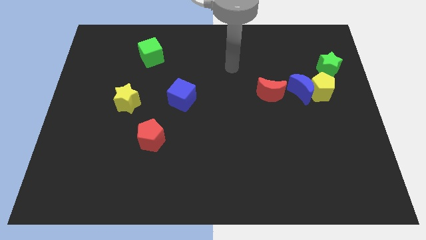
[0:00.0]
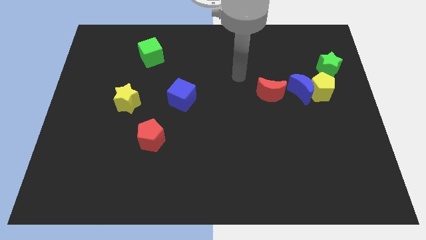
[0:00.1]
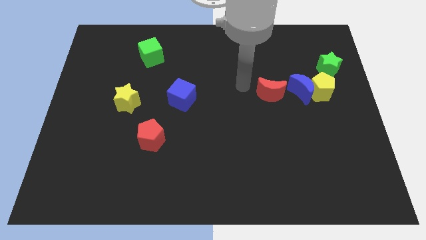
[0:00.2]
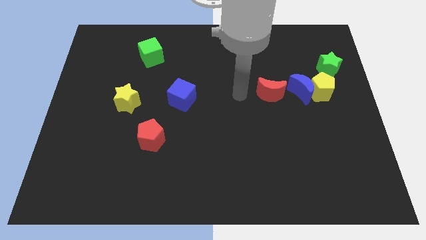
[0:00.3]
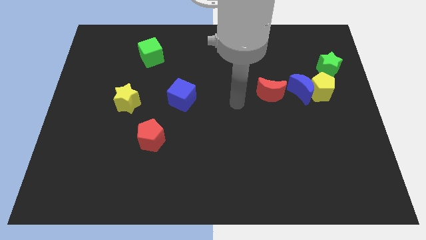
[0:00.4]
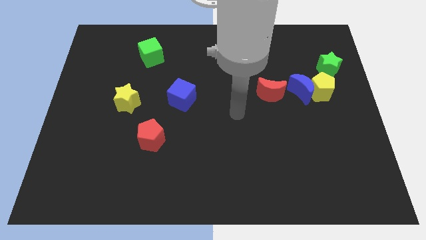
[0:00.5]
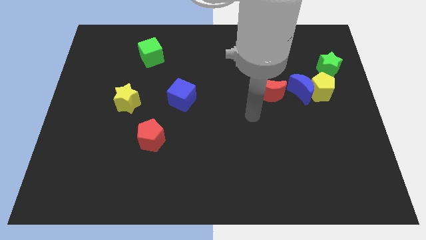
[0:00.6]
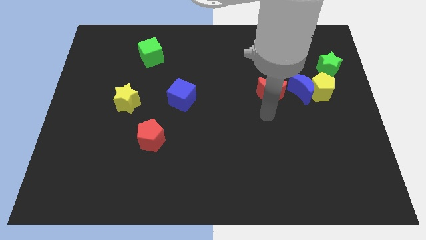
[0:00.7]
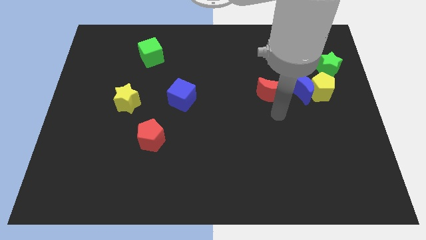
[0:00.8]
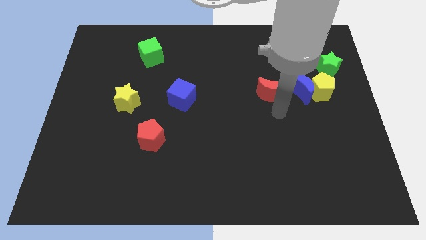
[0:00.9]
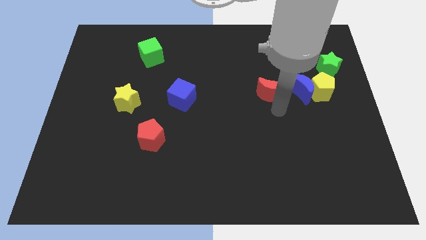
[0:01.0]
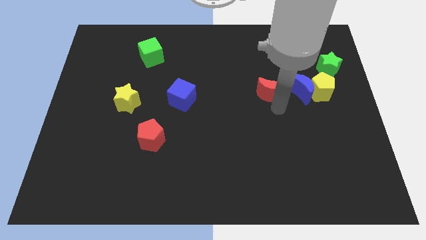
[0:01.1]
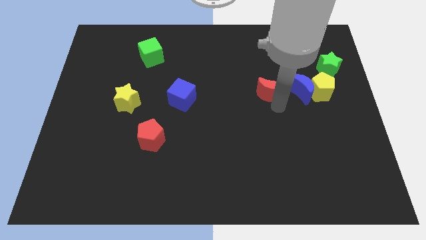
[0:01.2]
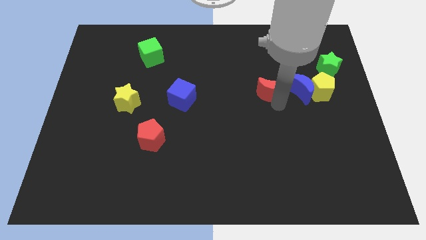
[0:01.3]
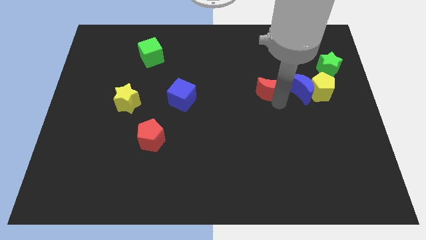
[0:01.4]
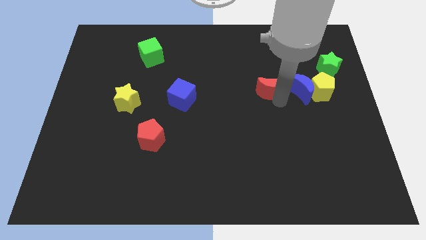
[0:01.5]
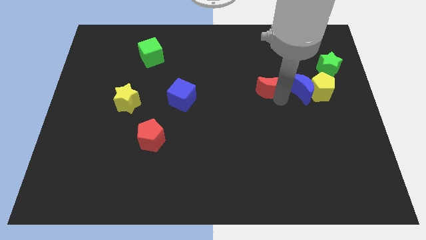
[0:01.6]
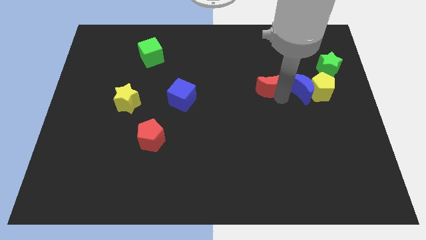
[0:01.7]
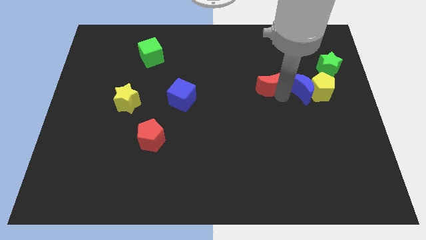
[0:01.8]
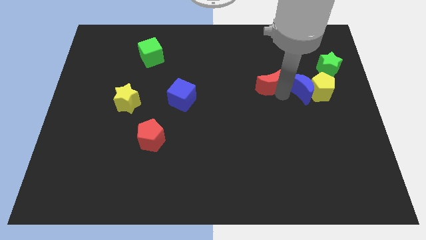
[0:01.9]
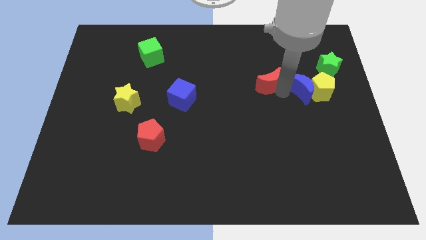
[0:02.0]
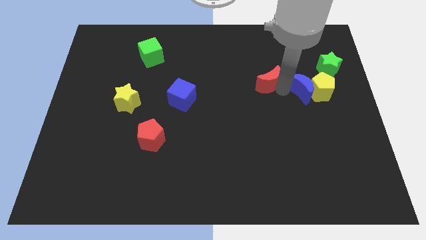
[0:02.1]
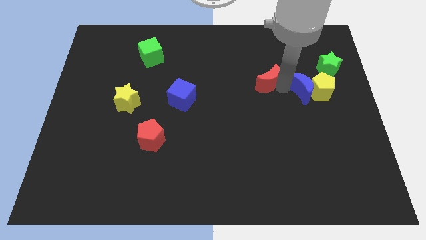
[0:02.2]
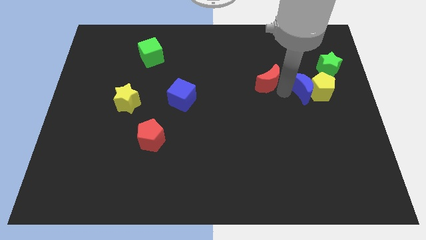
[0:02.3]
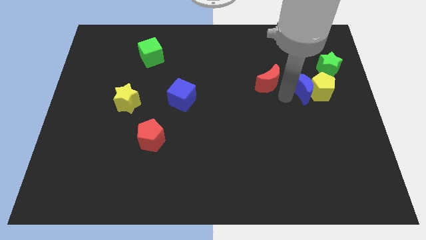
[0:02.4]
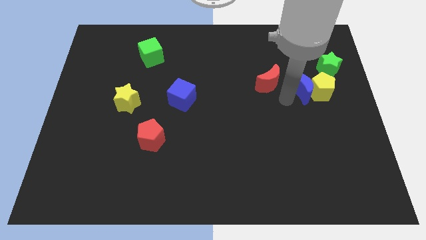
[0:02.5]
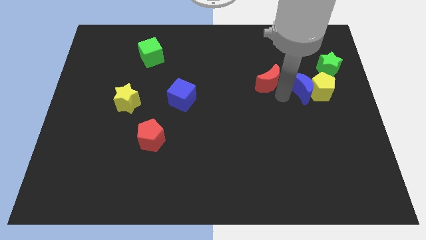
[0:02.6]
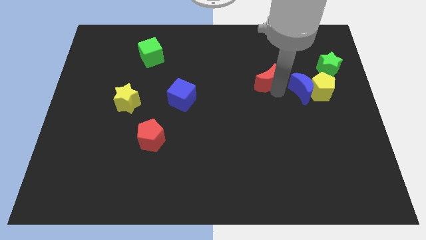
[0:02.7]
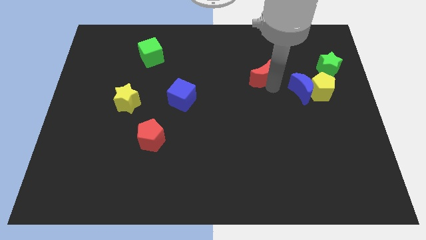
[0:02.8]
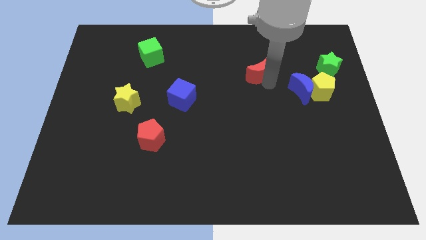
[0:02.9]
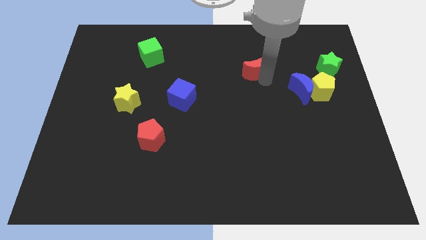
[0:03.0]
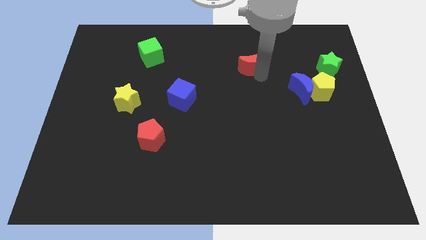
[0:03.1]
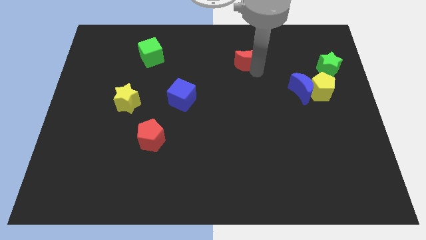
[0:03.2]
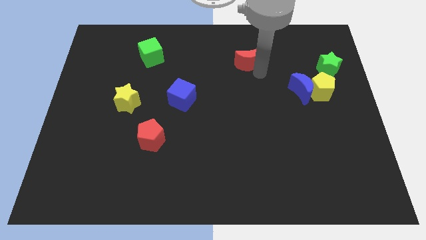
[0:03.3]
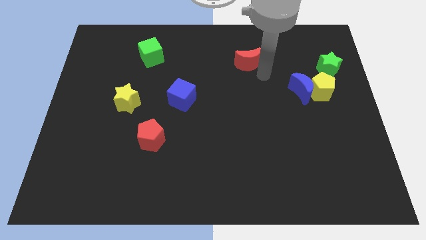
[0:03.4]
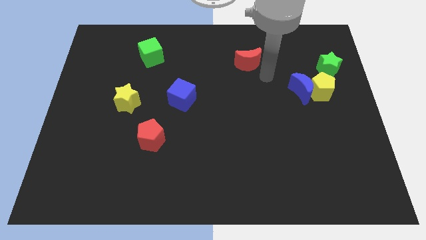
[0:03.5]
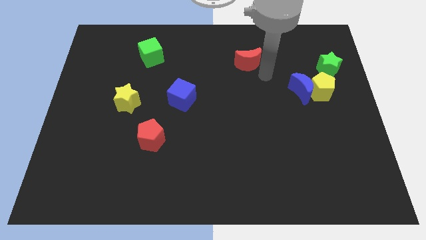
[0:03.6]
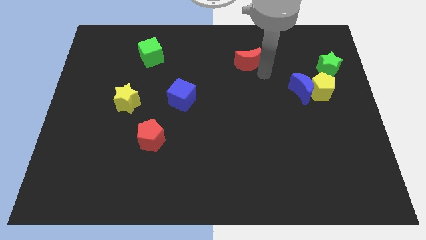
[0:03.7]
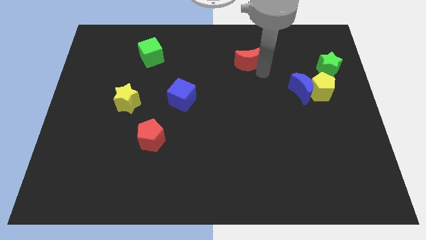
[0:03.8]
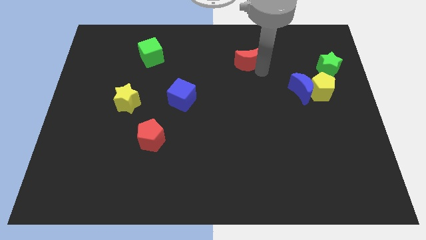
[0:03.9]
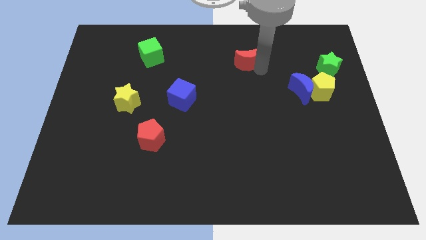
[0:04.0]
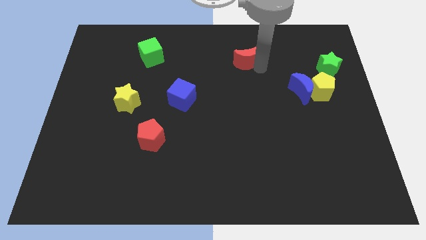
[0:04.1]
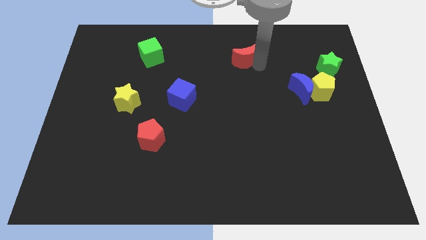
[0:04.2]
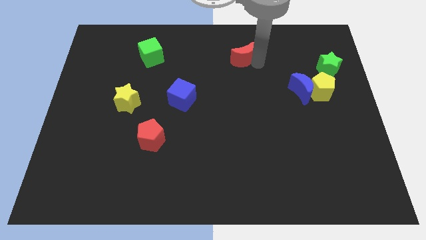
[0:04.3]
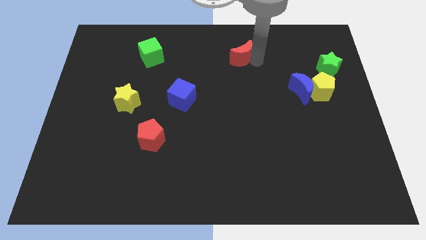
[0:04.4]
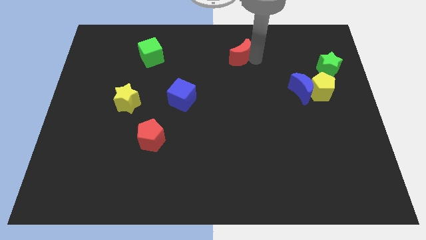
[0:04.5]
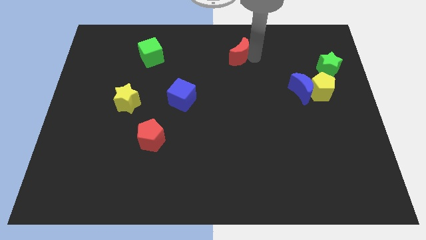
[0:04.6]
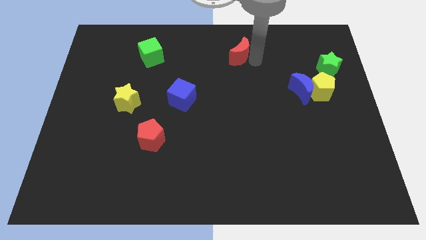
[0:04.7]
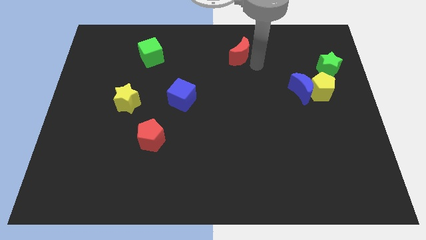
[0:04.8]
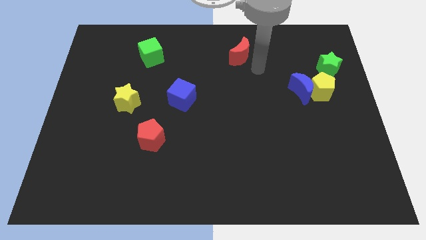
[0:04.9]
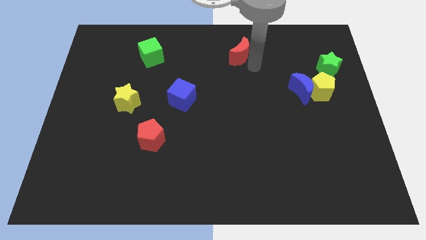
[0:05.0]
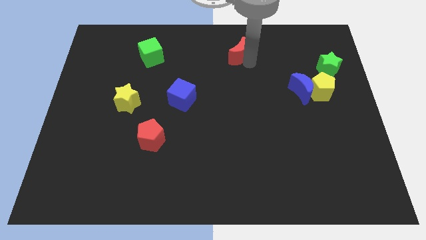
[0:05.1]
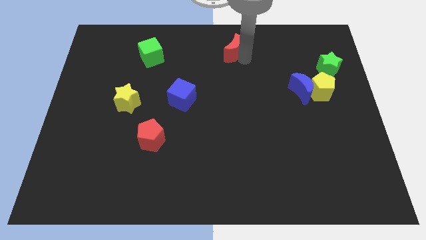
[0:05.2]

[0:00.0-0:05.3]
put the red moon to the top
